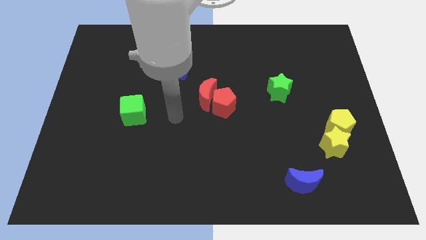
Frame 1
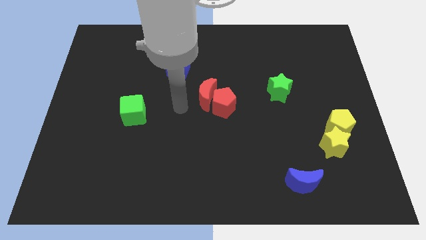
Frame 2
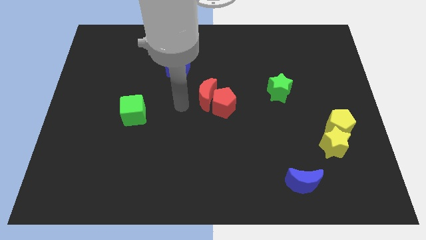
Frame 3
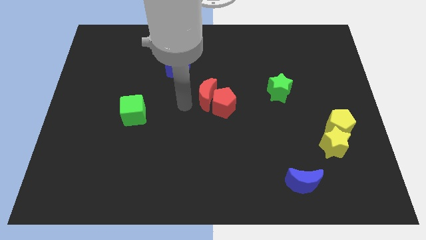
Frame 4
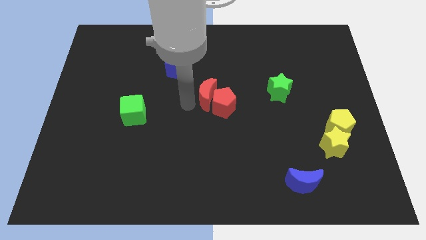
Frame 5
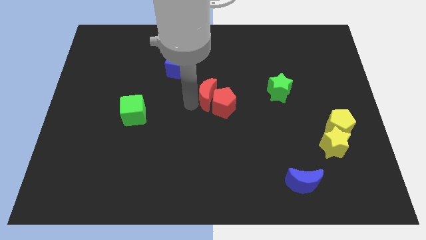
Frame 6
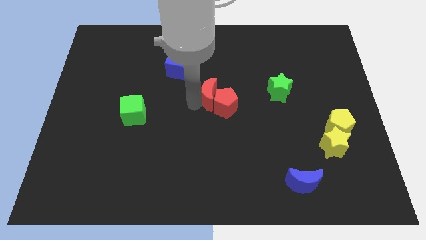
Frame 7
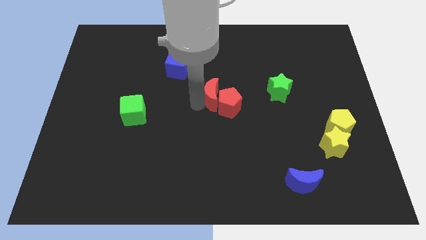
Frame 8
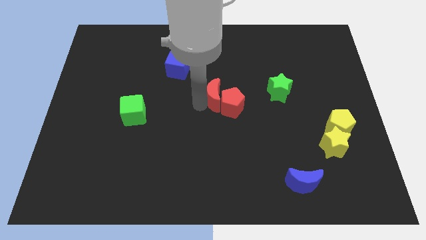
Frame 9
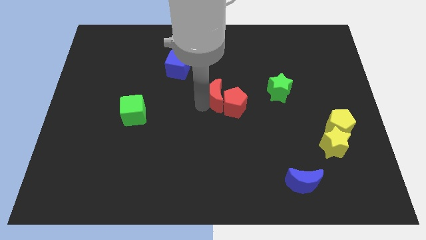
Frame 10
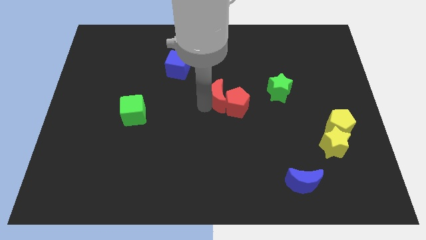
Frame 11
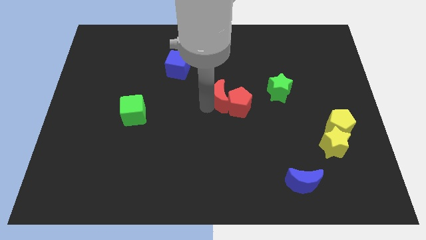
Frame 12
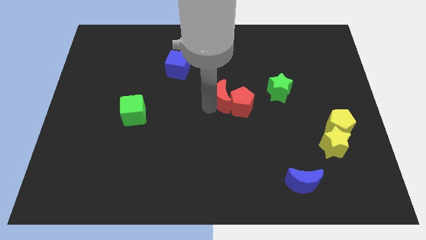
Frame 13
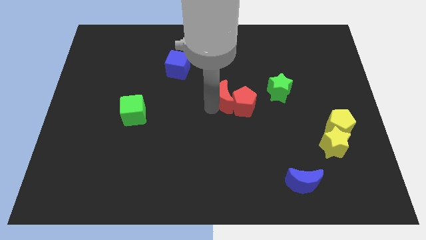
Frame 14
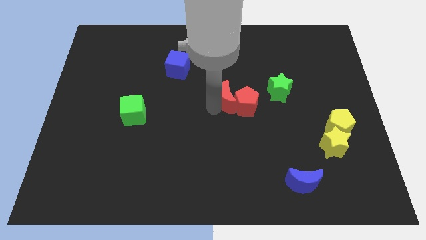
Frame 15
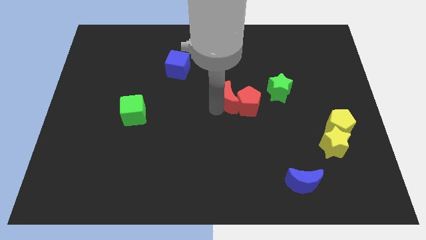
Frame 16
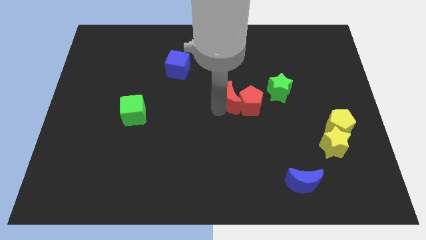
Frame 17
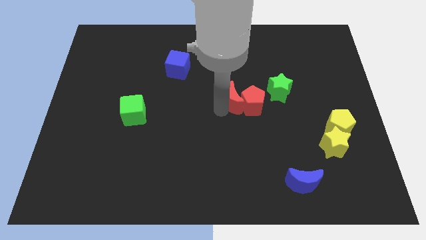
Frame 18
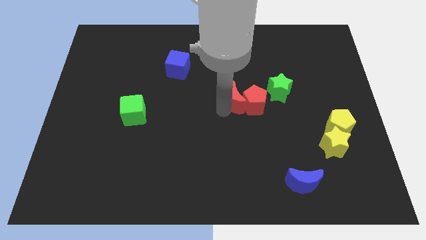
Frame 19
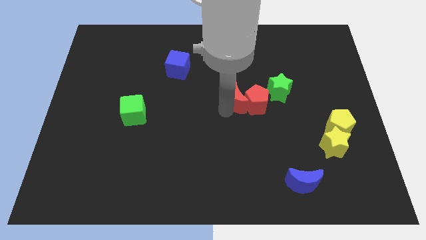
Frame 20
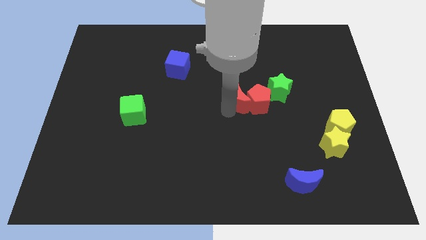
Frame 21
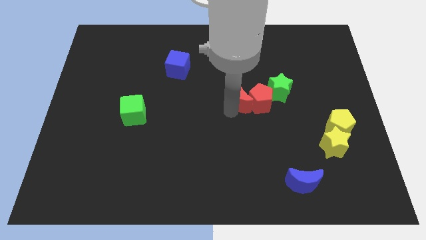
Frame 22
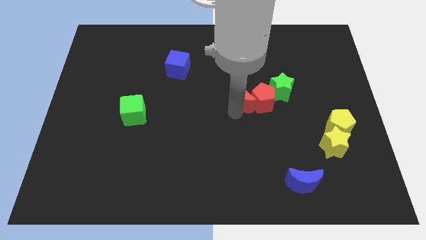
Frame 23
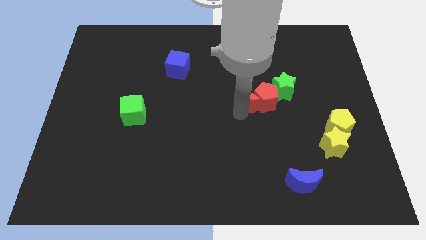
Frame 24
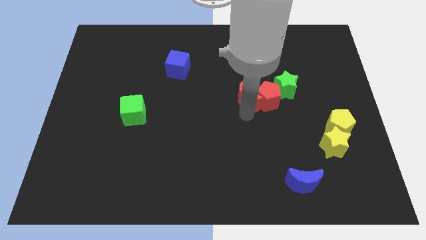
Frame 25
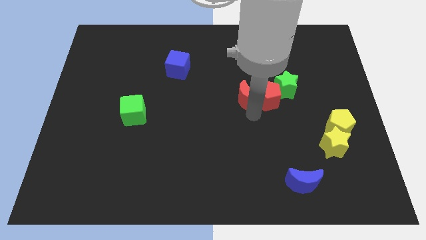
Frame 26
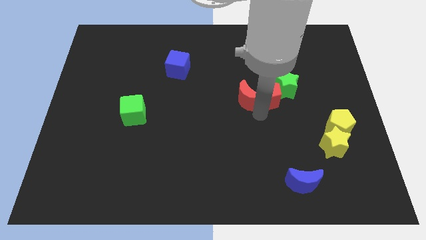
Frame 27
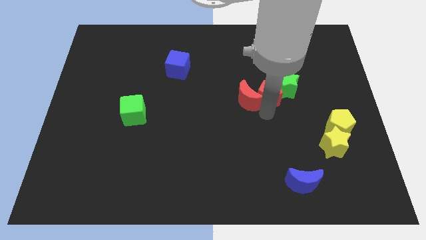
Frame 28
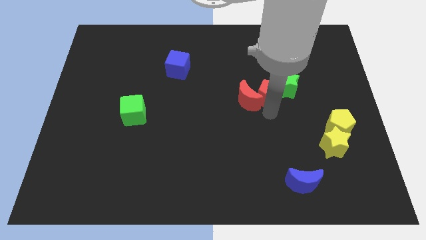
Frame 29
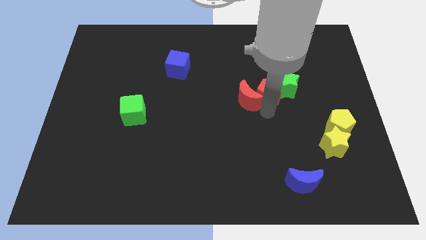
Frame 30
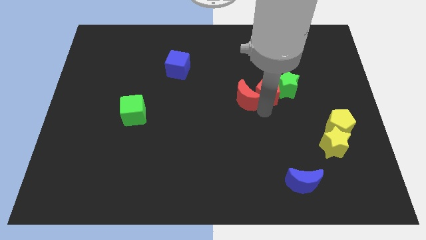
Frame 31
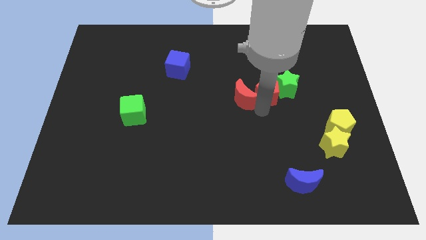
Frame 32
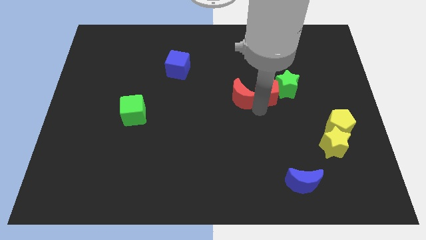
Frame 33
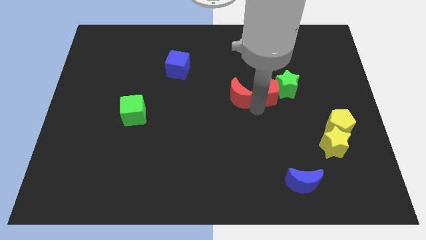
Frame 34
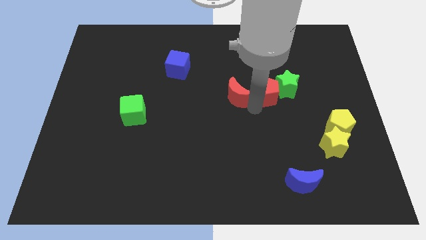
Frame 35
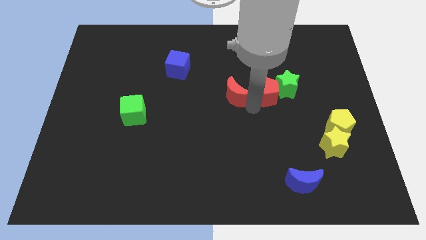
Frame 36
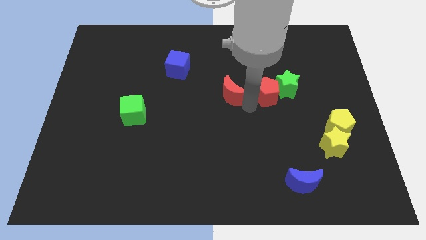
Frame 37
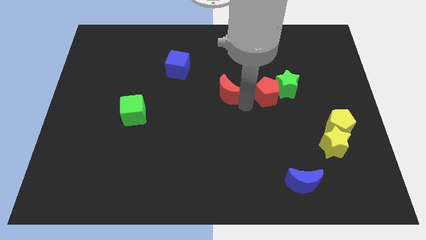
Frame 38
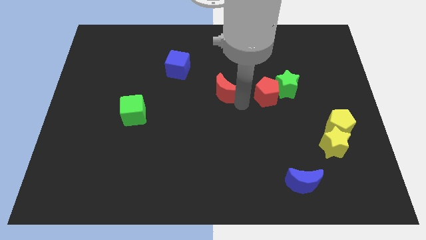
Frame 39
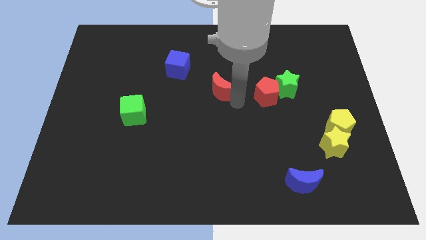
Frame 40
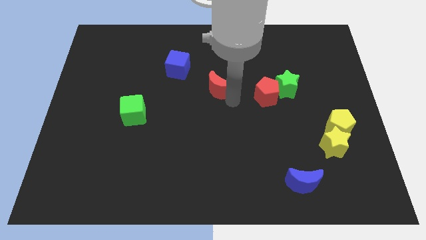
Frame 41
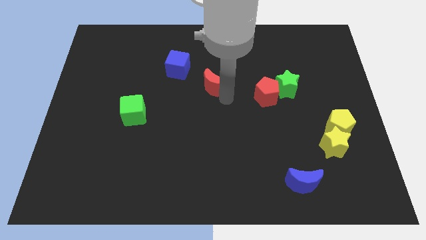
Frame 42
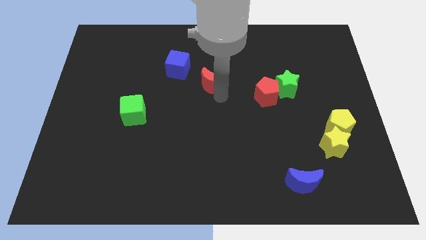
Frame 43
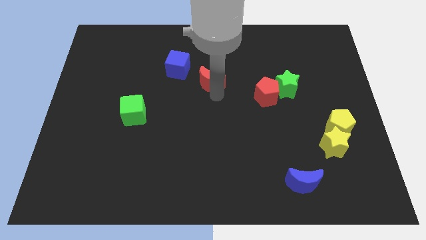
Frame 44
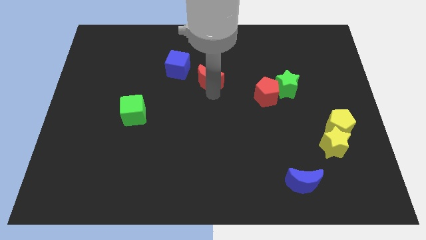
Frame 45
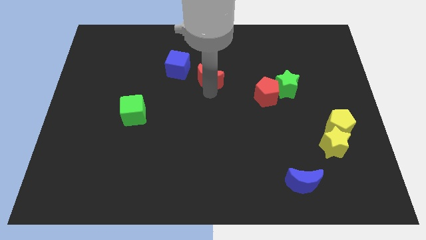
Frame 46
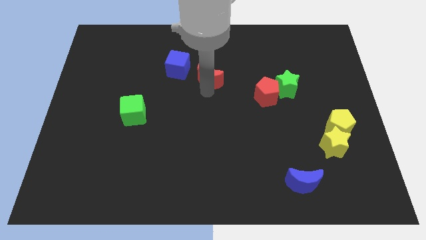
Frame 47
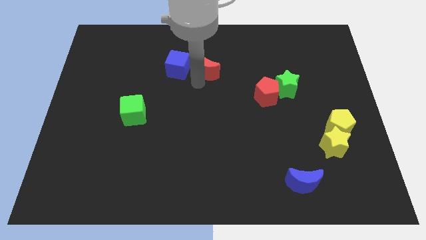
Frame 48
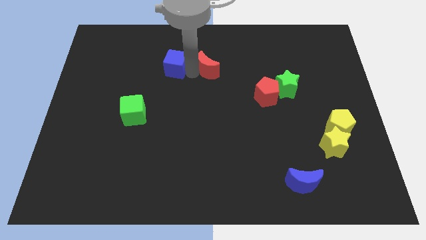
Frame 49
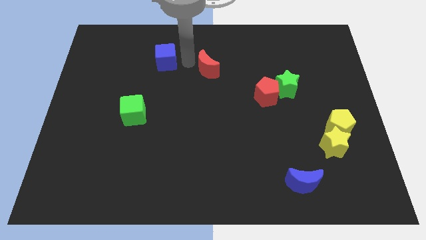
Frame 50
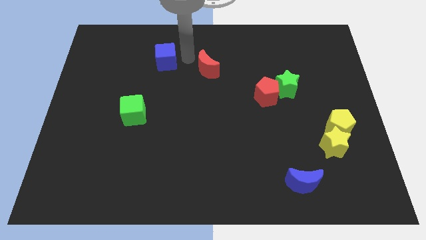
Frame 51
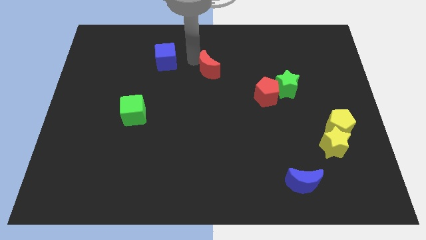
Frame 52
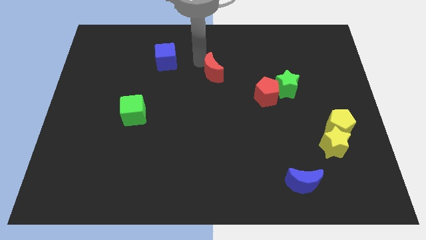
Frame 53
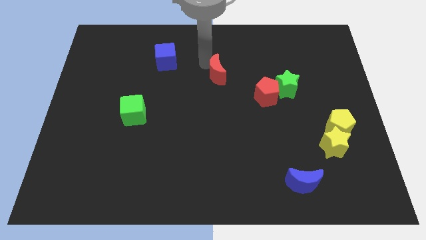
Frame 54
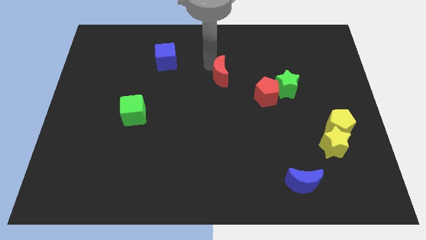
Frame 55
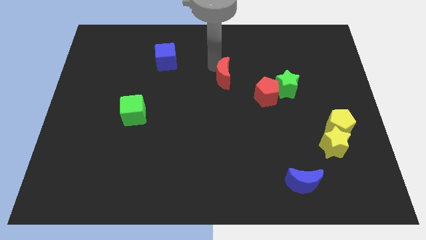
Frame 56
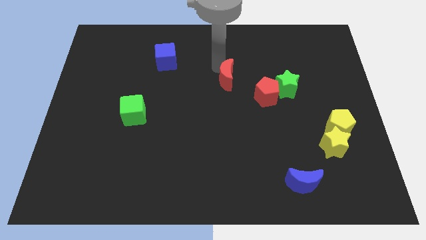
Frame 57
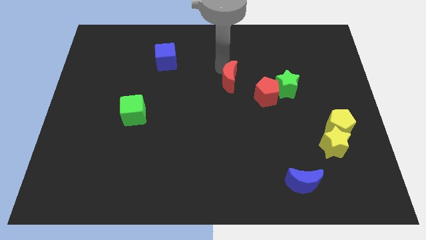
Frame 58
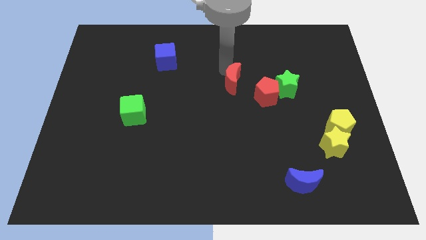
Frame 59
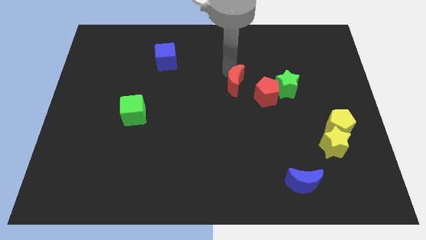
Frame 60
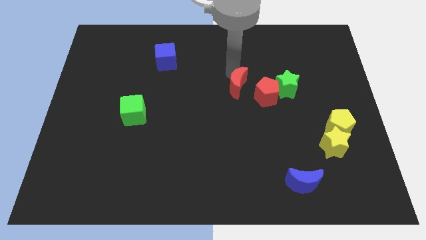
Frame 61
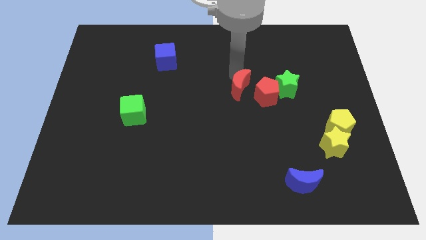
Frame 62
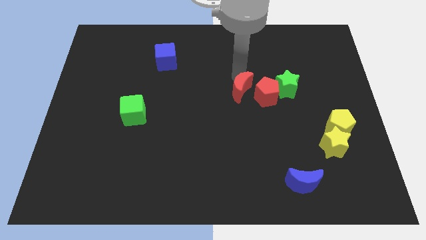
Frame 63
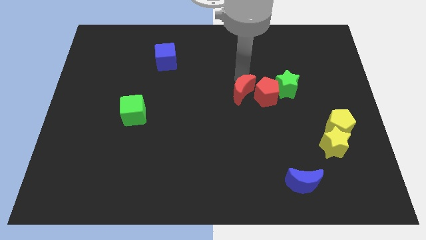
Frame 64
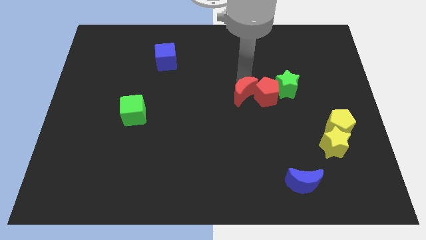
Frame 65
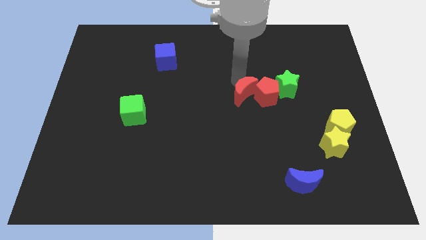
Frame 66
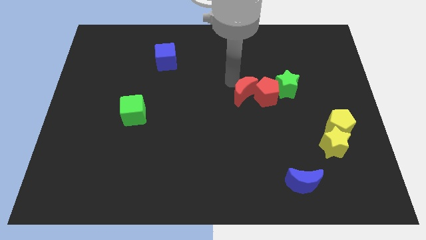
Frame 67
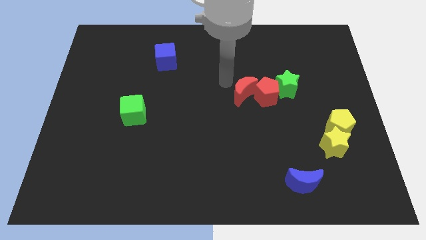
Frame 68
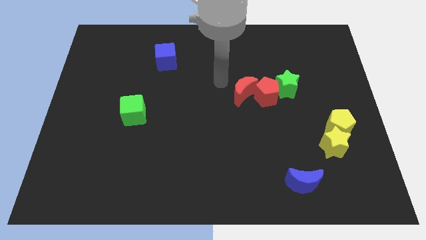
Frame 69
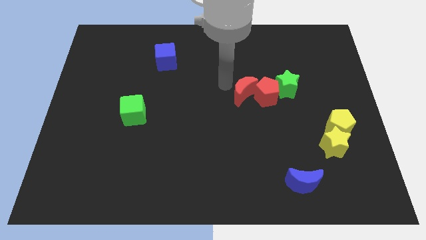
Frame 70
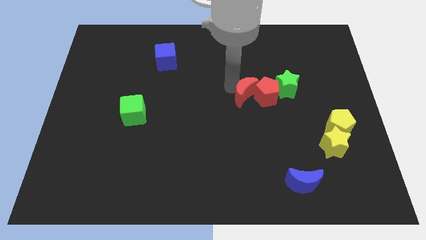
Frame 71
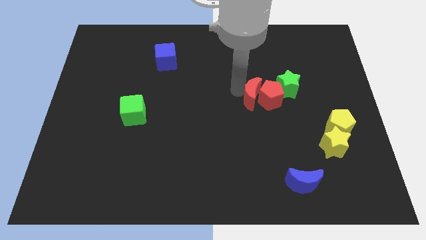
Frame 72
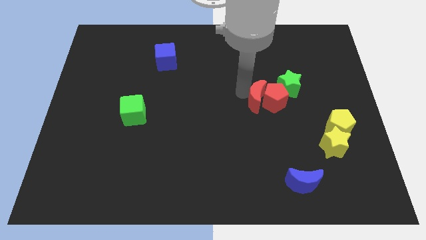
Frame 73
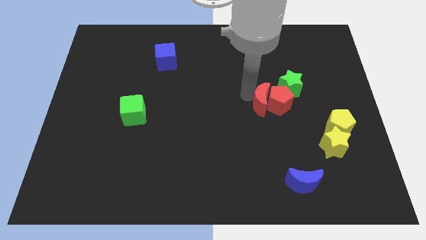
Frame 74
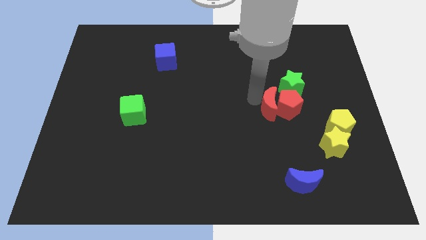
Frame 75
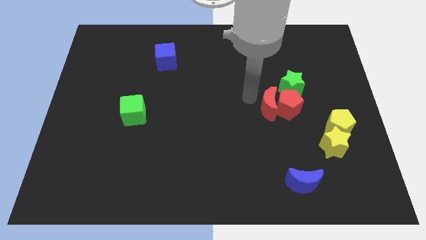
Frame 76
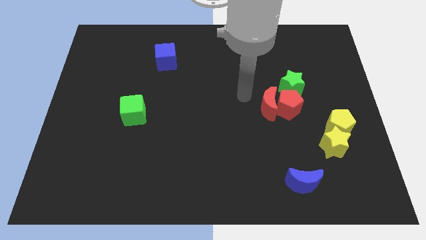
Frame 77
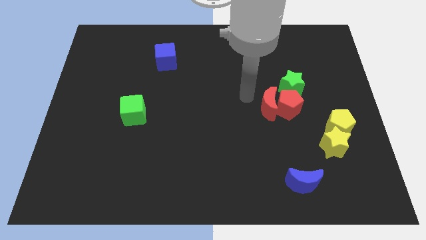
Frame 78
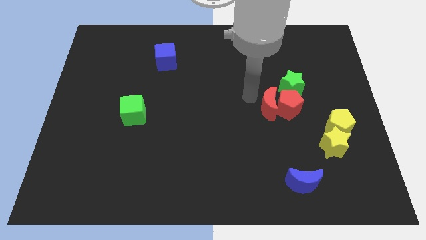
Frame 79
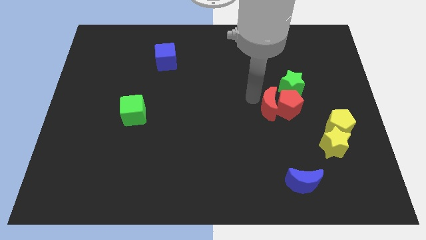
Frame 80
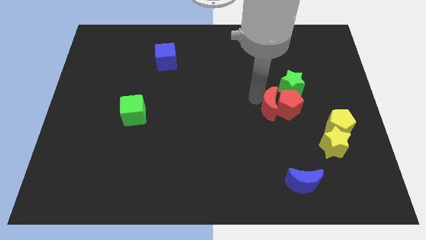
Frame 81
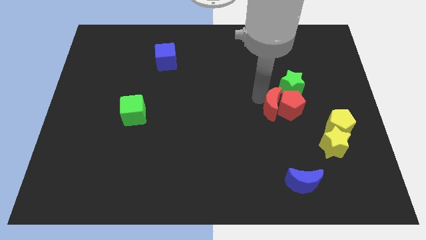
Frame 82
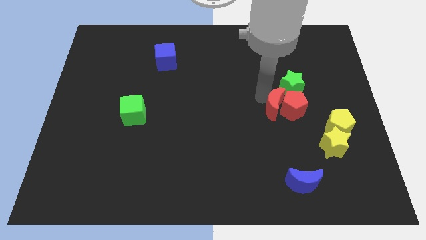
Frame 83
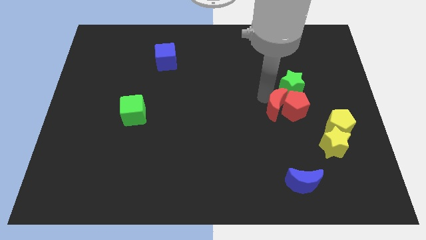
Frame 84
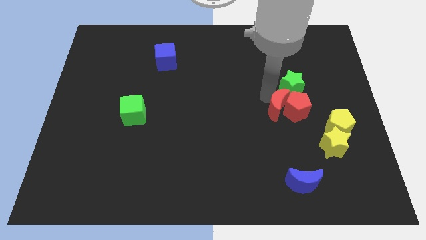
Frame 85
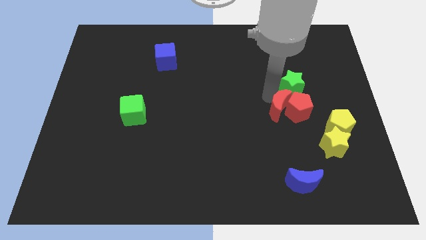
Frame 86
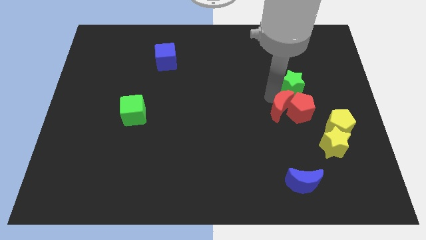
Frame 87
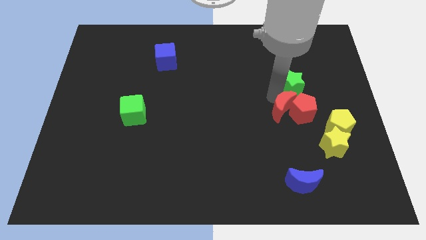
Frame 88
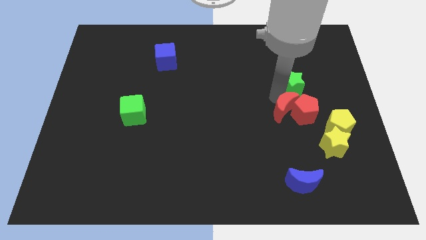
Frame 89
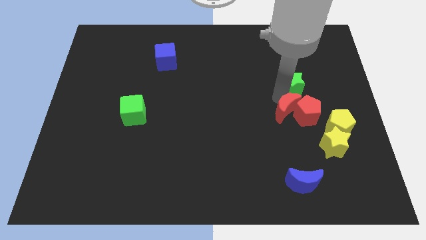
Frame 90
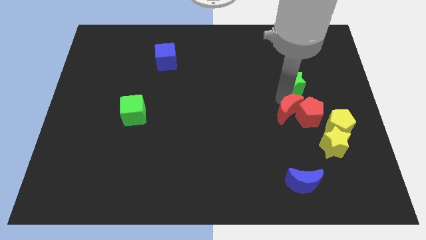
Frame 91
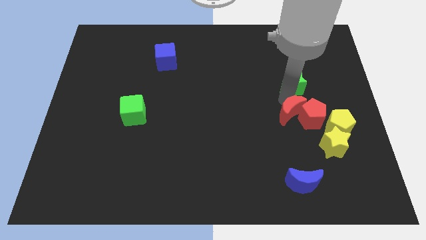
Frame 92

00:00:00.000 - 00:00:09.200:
slide the red moon to the top left side of the yellow star
